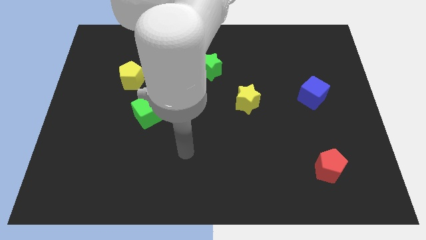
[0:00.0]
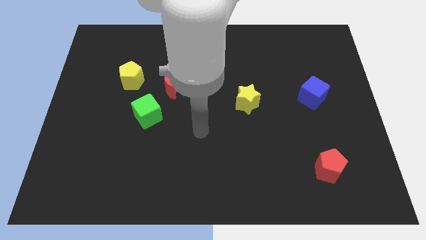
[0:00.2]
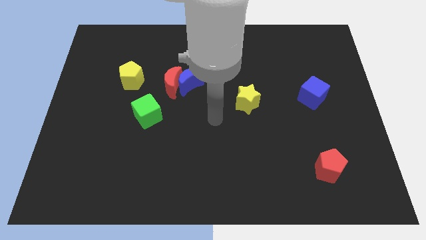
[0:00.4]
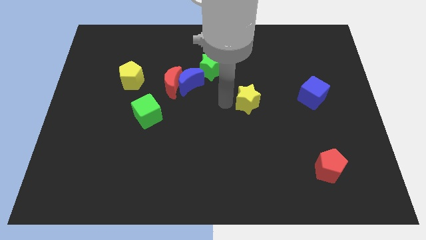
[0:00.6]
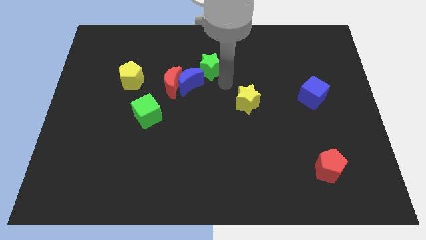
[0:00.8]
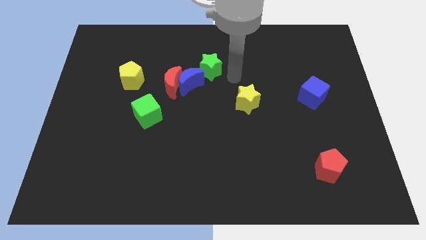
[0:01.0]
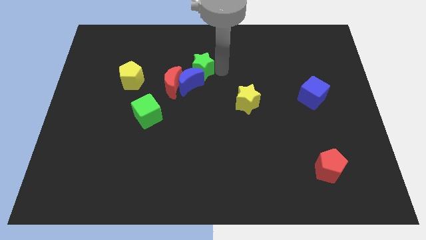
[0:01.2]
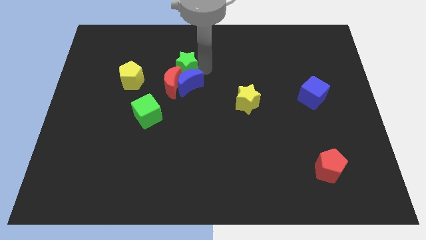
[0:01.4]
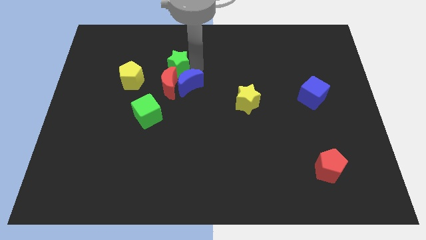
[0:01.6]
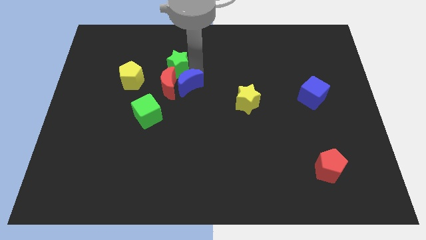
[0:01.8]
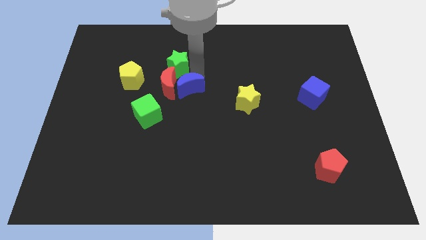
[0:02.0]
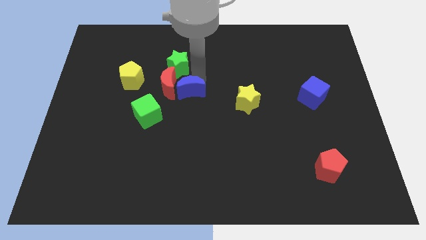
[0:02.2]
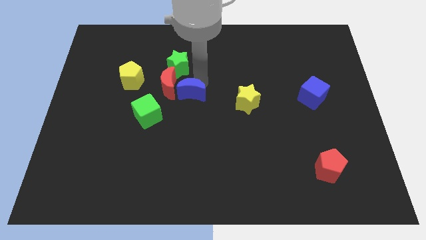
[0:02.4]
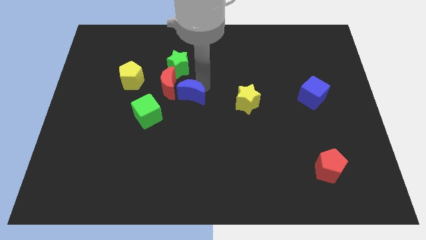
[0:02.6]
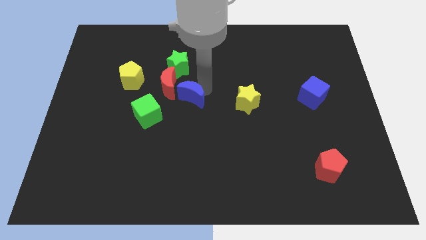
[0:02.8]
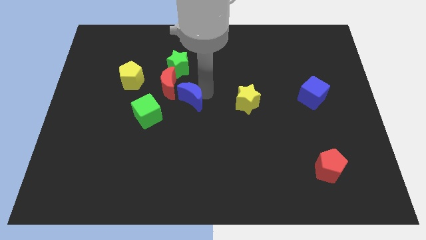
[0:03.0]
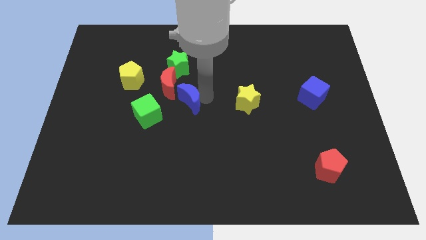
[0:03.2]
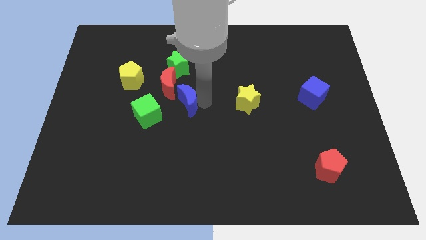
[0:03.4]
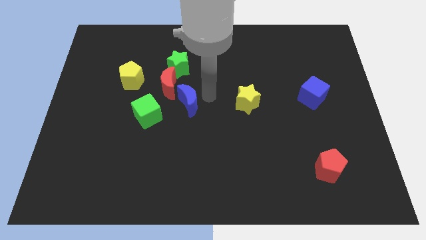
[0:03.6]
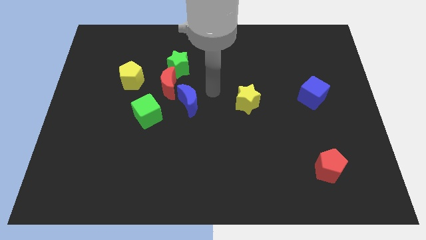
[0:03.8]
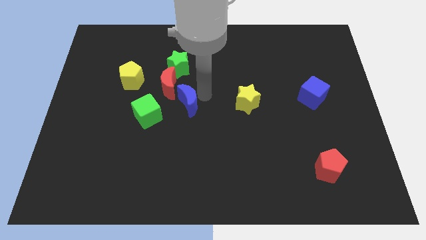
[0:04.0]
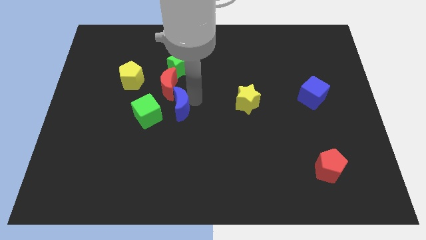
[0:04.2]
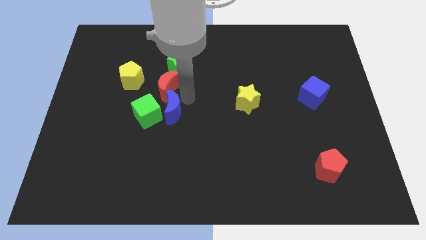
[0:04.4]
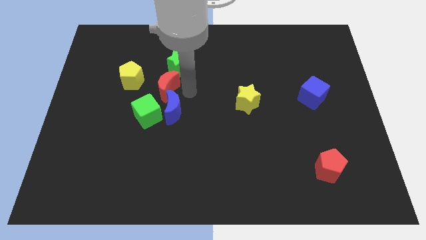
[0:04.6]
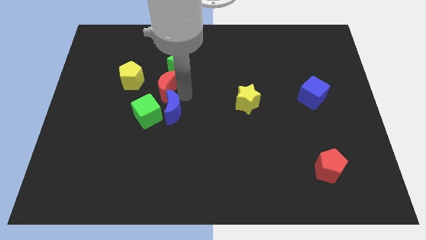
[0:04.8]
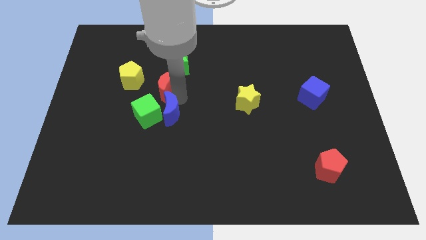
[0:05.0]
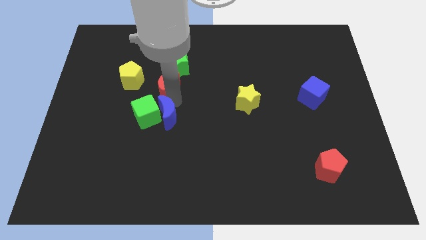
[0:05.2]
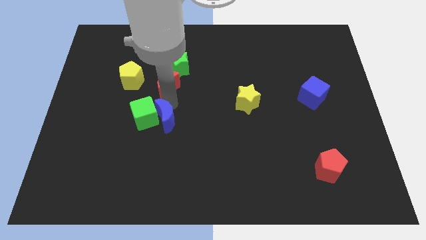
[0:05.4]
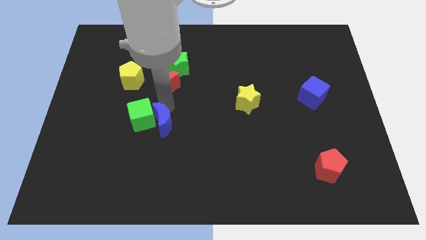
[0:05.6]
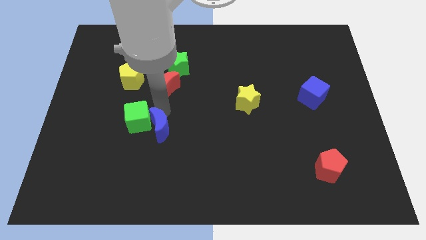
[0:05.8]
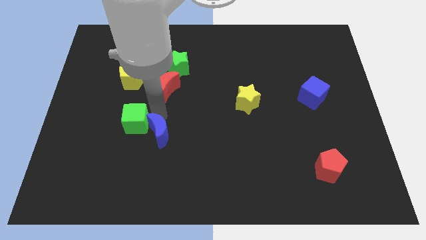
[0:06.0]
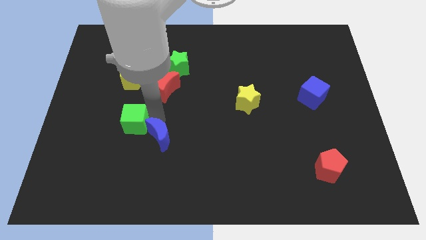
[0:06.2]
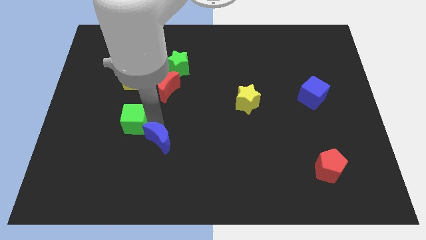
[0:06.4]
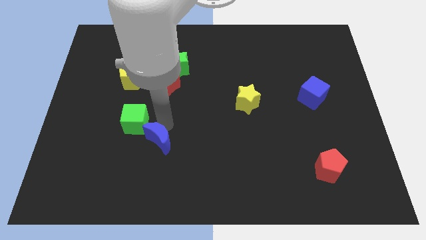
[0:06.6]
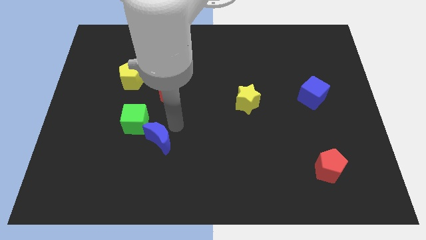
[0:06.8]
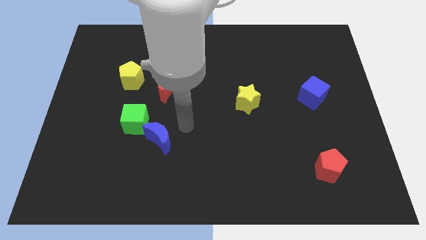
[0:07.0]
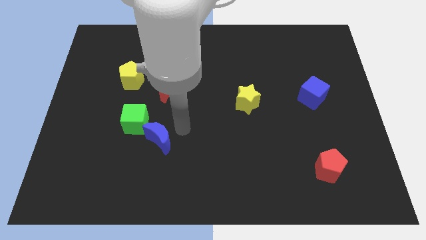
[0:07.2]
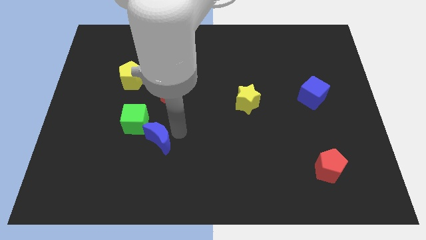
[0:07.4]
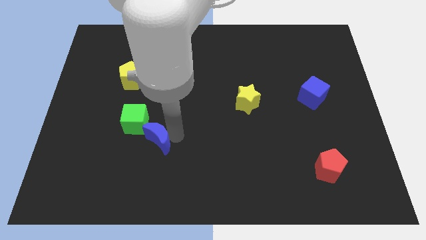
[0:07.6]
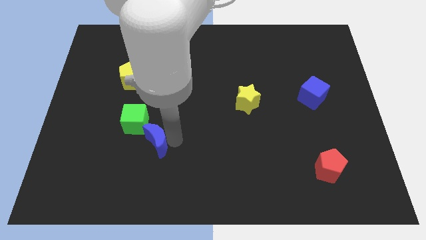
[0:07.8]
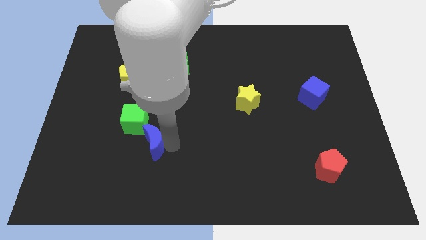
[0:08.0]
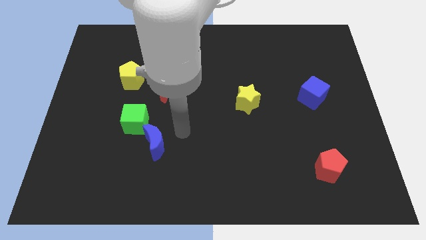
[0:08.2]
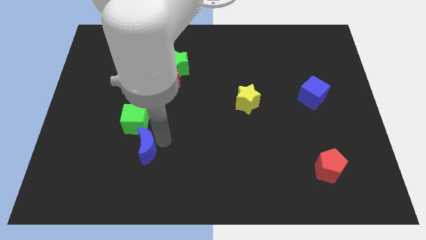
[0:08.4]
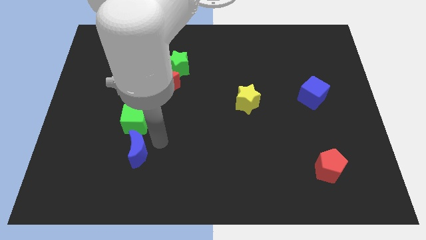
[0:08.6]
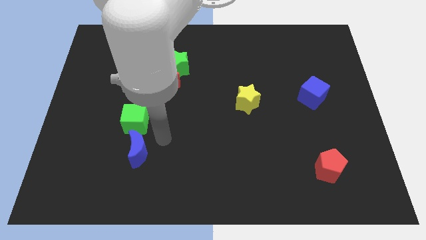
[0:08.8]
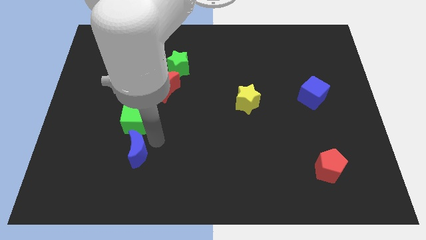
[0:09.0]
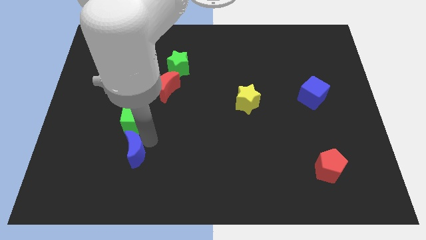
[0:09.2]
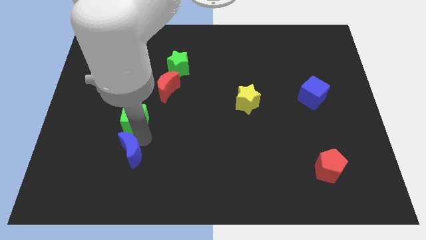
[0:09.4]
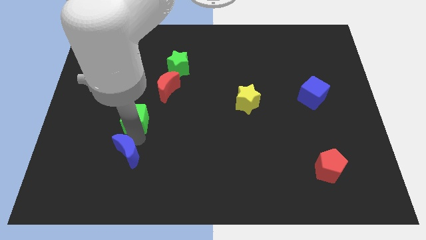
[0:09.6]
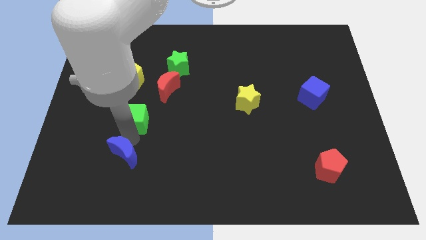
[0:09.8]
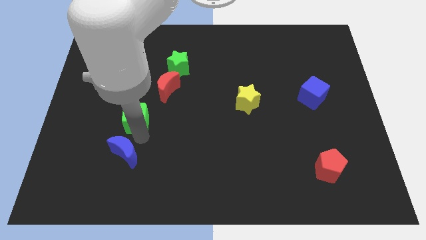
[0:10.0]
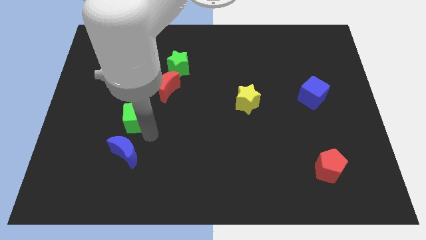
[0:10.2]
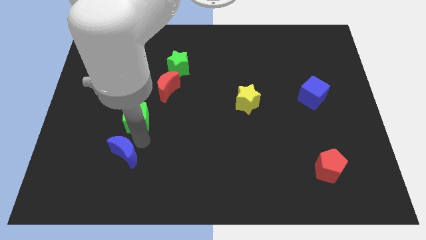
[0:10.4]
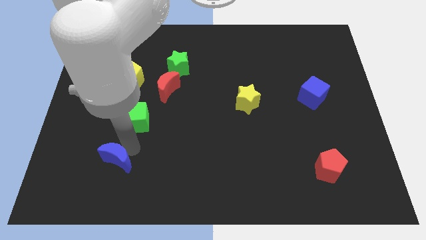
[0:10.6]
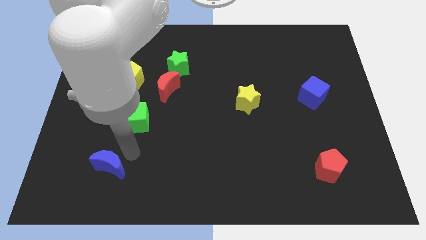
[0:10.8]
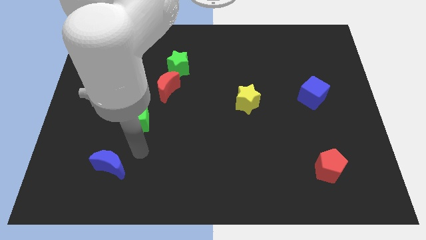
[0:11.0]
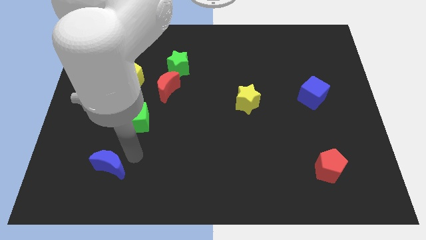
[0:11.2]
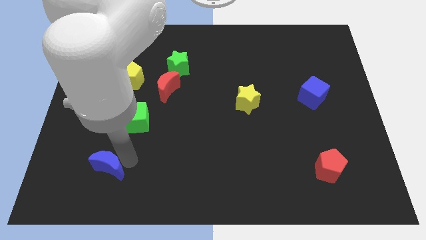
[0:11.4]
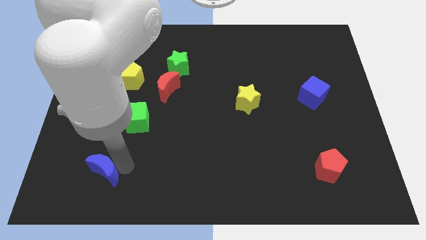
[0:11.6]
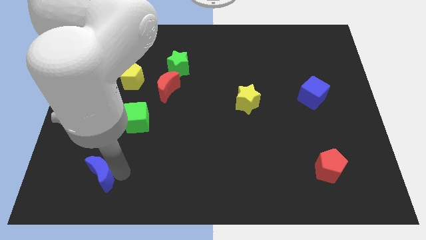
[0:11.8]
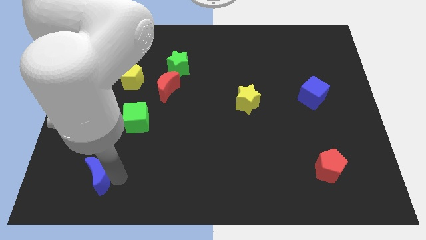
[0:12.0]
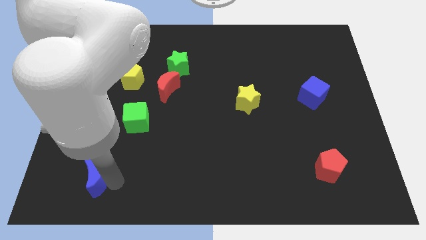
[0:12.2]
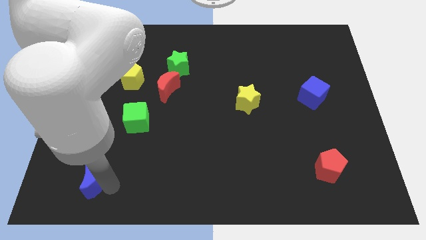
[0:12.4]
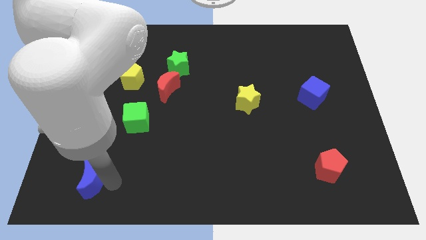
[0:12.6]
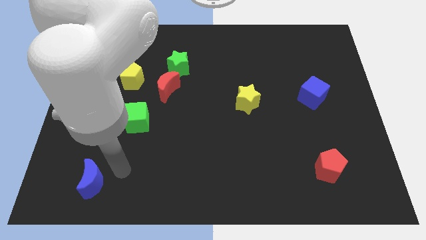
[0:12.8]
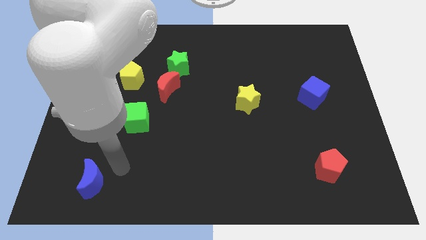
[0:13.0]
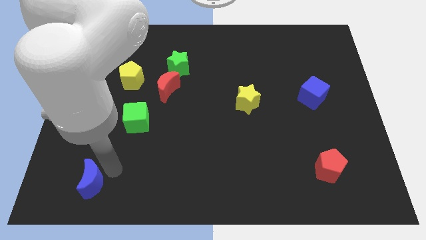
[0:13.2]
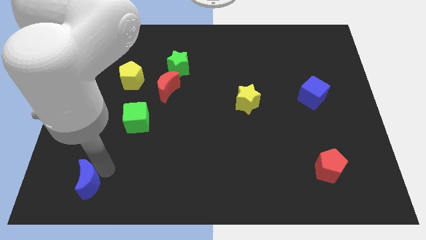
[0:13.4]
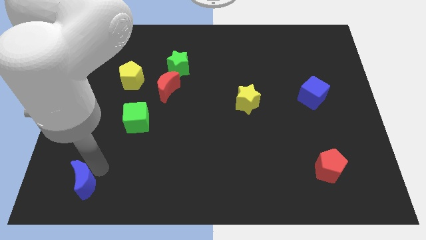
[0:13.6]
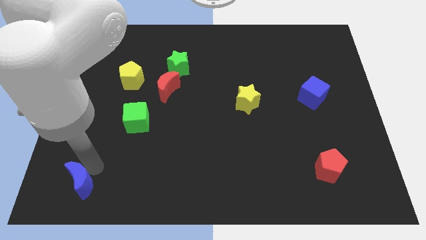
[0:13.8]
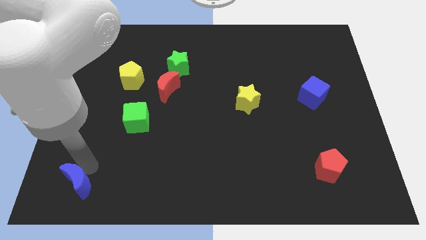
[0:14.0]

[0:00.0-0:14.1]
push the blue moon to the bottom left of the board
